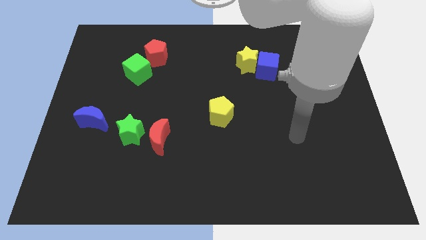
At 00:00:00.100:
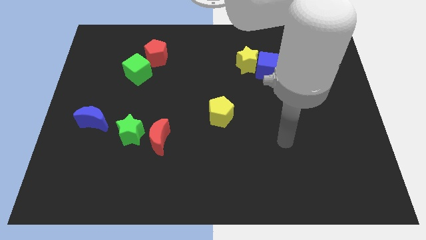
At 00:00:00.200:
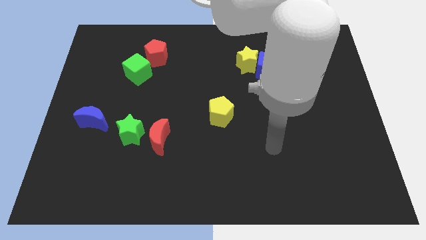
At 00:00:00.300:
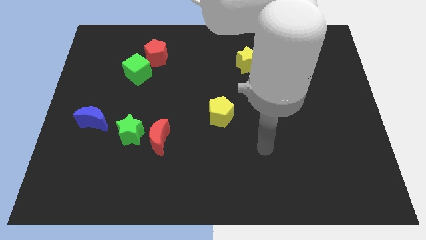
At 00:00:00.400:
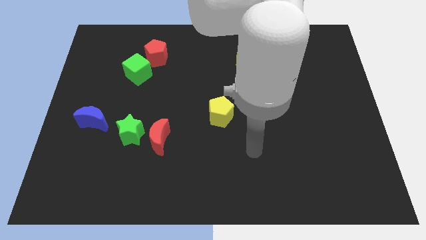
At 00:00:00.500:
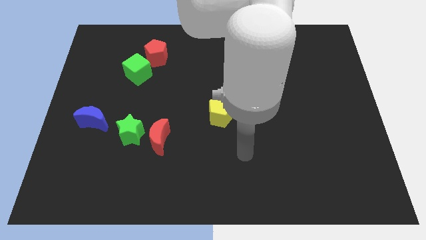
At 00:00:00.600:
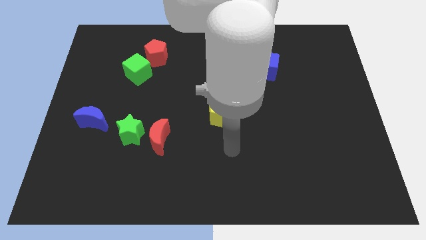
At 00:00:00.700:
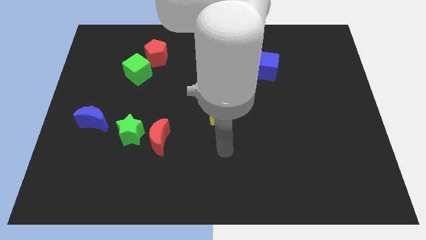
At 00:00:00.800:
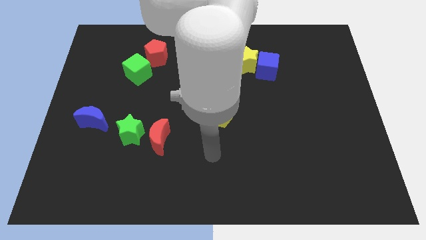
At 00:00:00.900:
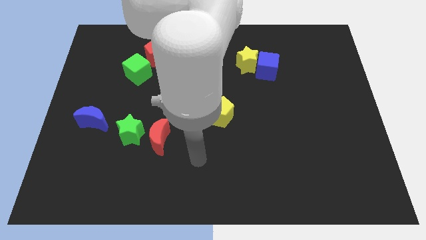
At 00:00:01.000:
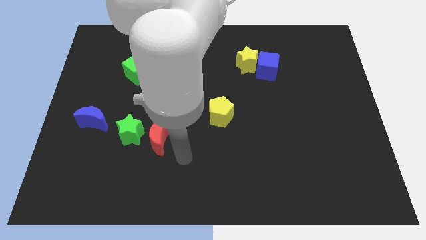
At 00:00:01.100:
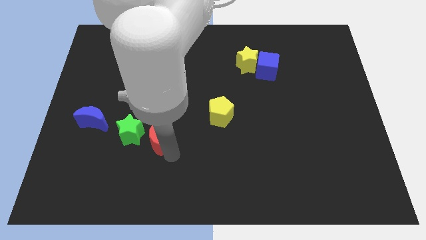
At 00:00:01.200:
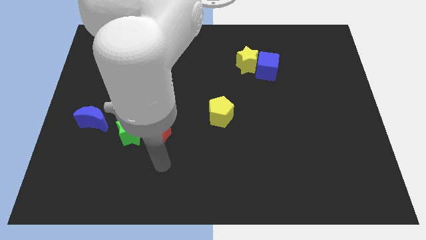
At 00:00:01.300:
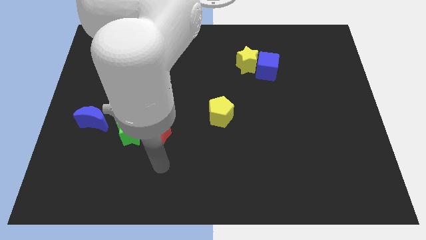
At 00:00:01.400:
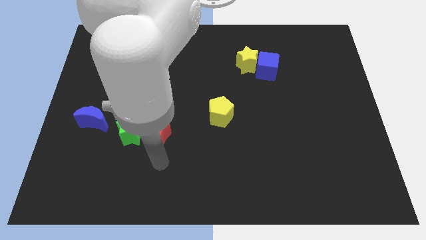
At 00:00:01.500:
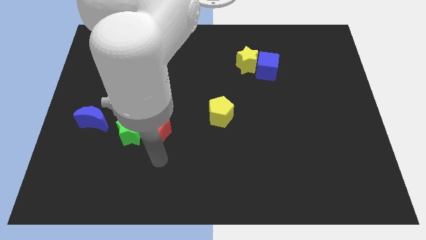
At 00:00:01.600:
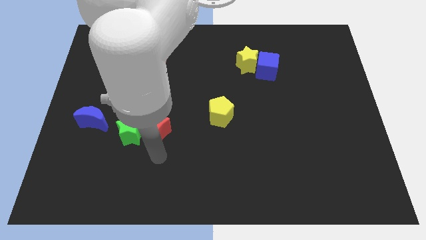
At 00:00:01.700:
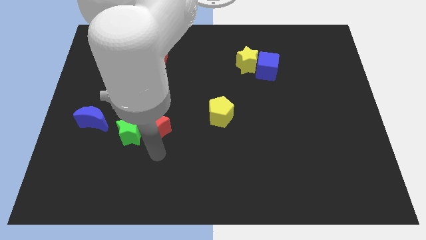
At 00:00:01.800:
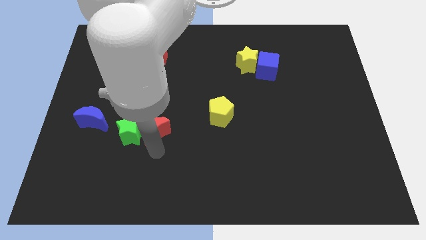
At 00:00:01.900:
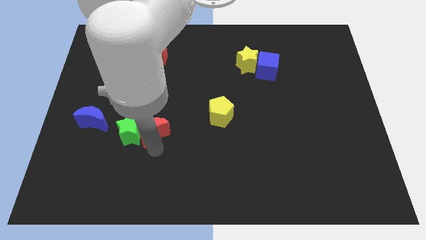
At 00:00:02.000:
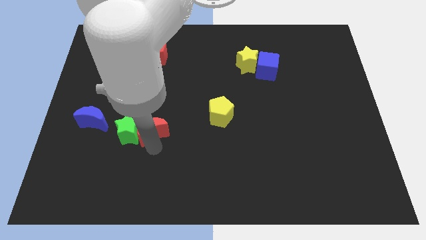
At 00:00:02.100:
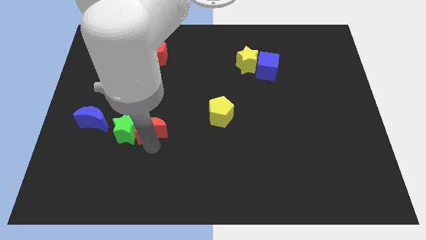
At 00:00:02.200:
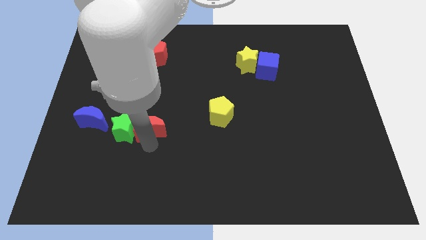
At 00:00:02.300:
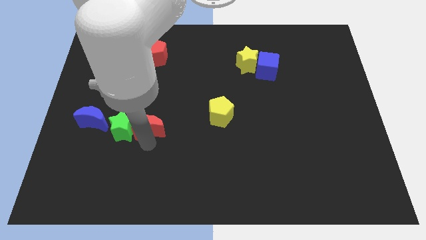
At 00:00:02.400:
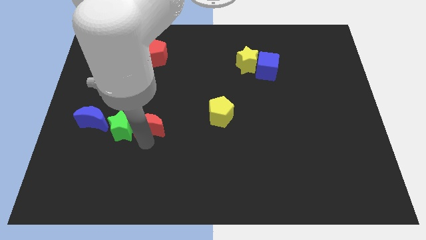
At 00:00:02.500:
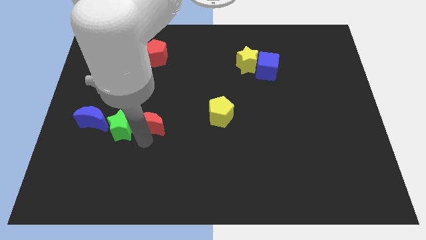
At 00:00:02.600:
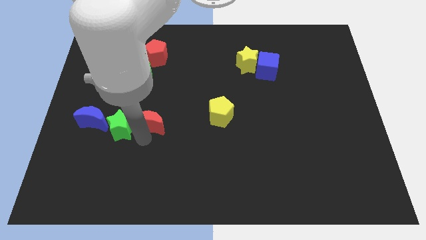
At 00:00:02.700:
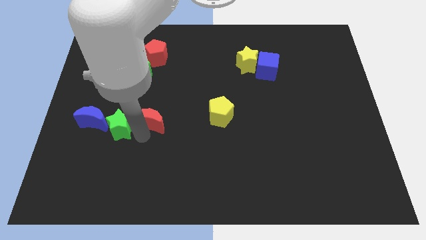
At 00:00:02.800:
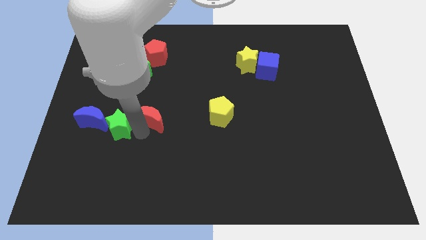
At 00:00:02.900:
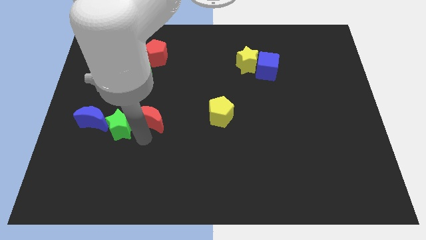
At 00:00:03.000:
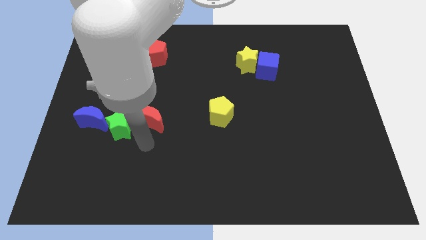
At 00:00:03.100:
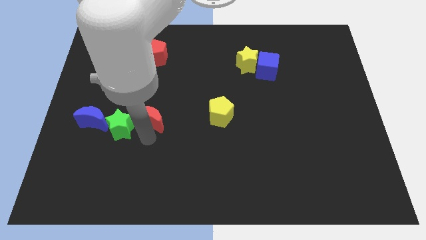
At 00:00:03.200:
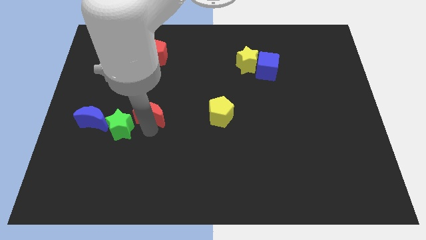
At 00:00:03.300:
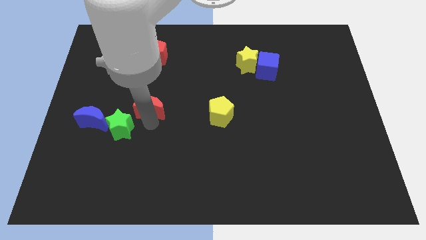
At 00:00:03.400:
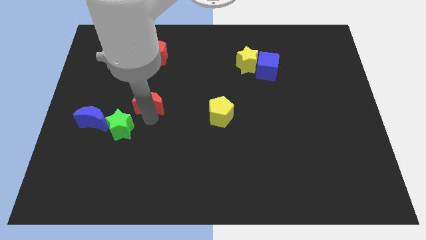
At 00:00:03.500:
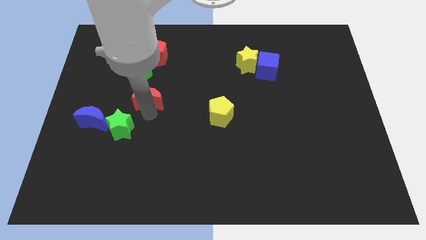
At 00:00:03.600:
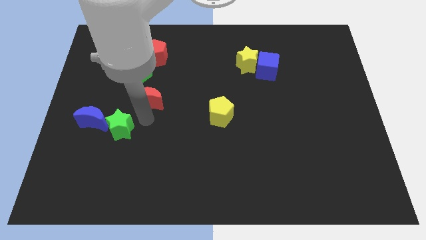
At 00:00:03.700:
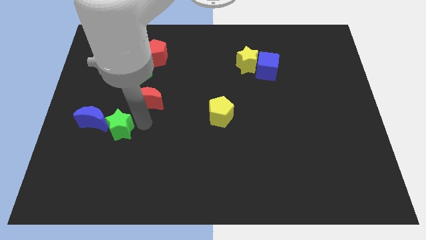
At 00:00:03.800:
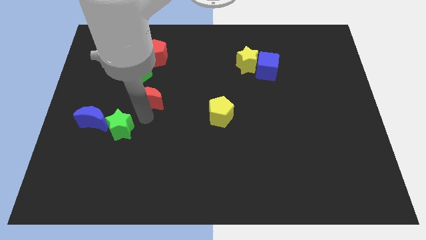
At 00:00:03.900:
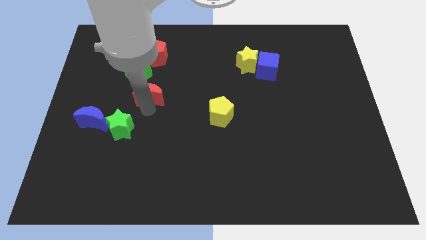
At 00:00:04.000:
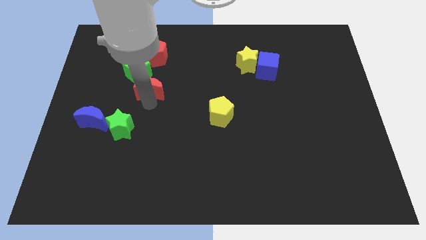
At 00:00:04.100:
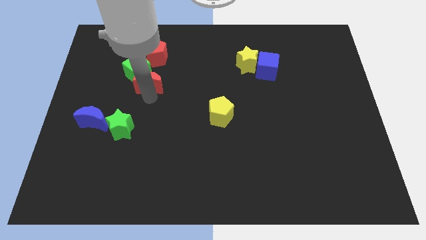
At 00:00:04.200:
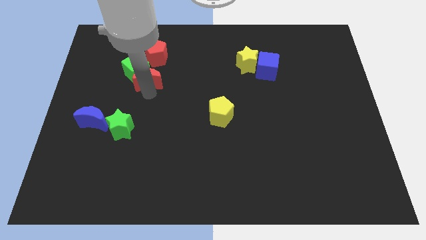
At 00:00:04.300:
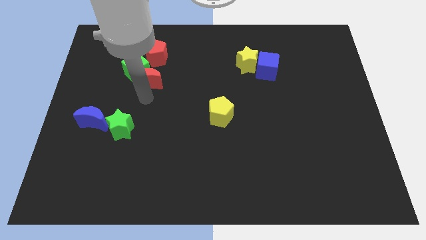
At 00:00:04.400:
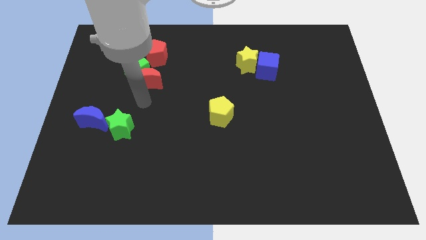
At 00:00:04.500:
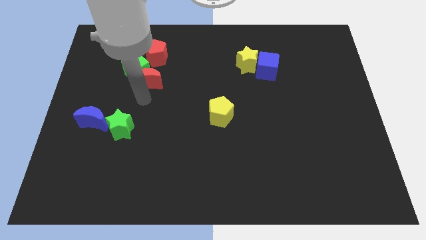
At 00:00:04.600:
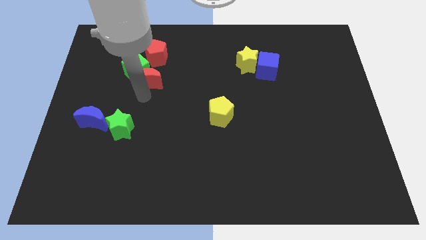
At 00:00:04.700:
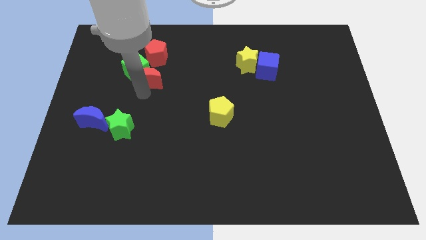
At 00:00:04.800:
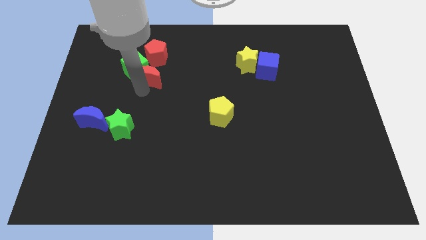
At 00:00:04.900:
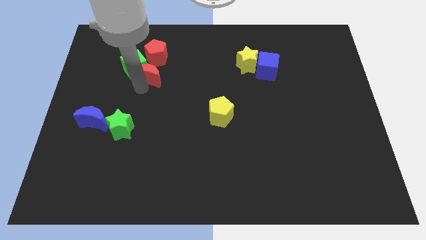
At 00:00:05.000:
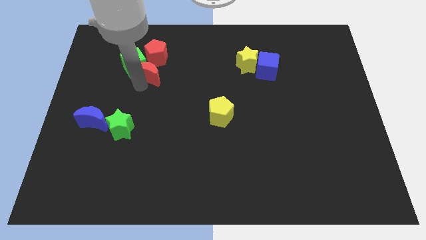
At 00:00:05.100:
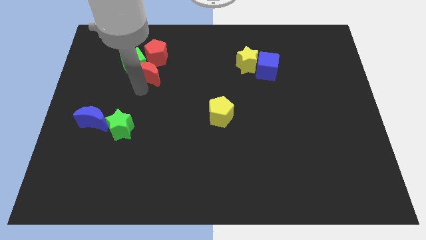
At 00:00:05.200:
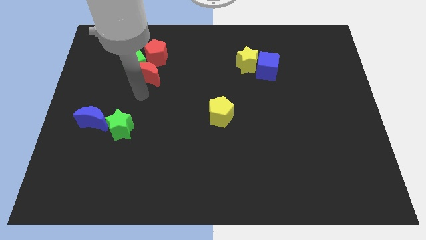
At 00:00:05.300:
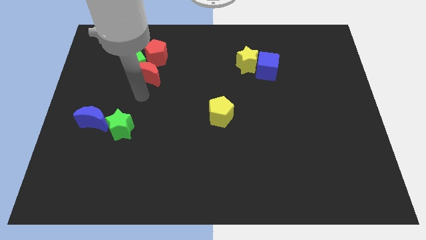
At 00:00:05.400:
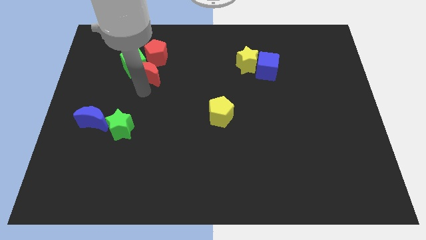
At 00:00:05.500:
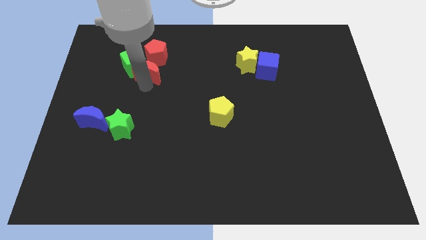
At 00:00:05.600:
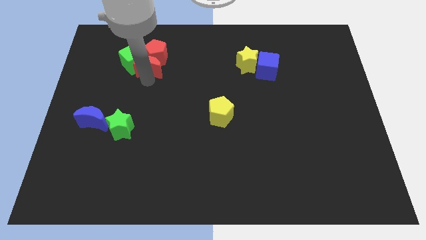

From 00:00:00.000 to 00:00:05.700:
put the red moon towards the red pentagon

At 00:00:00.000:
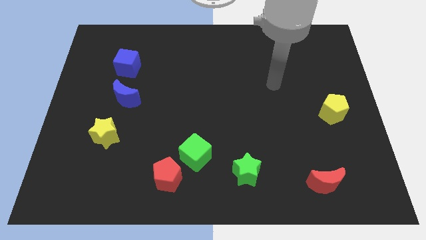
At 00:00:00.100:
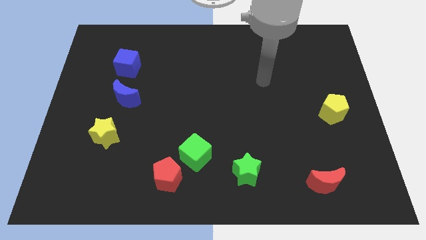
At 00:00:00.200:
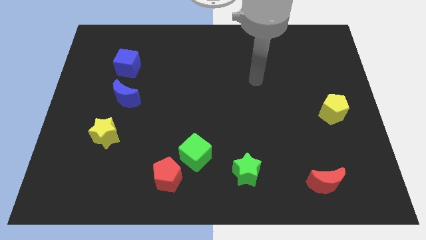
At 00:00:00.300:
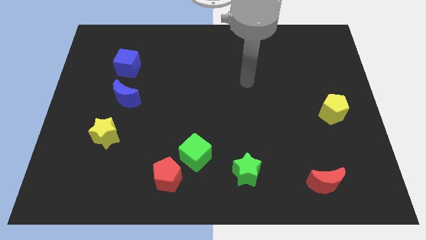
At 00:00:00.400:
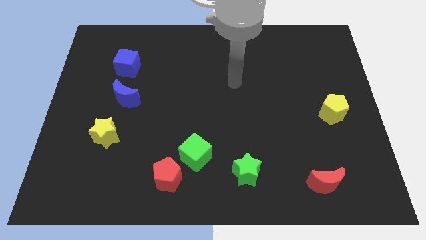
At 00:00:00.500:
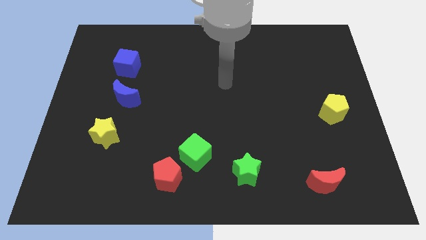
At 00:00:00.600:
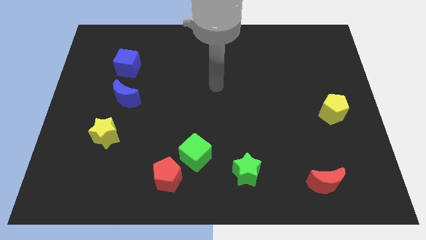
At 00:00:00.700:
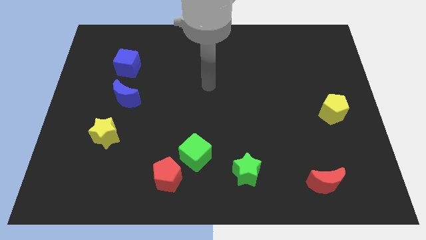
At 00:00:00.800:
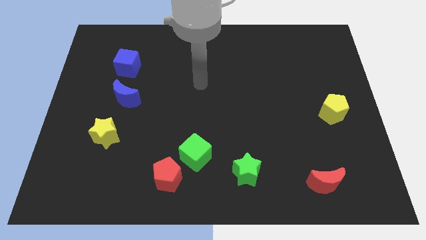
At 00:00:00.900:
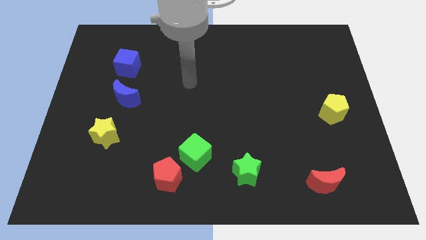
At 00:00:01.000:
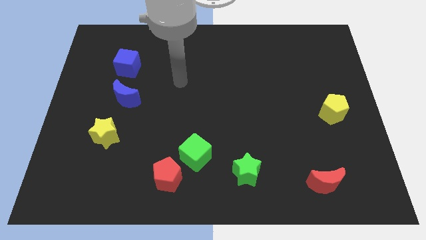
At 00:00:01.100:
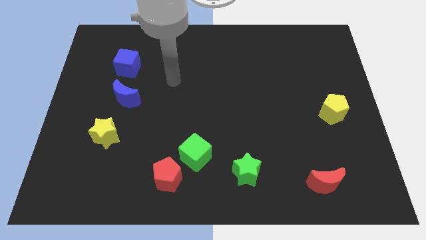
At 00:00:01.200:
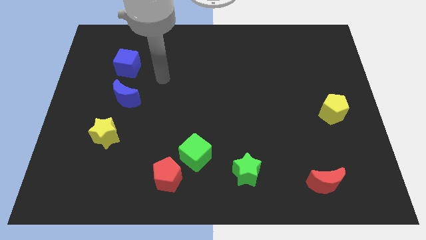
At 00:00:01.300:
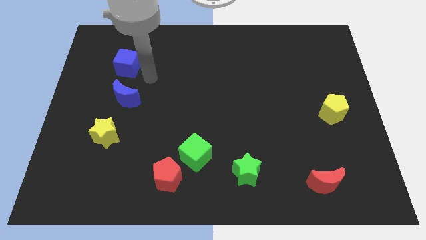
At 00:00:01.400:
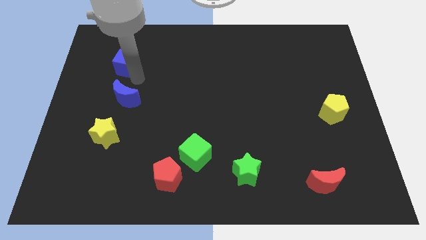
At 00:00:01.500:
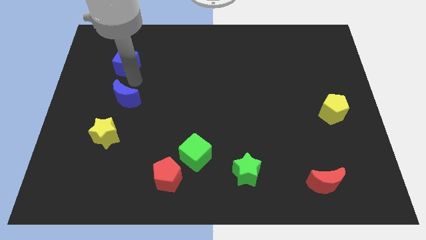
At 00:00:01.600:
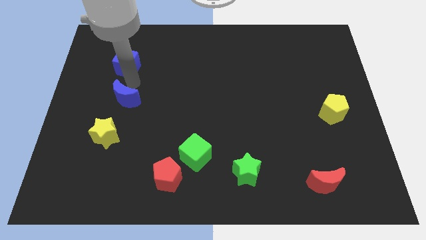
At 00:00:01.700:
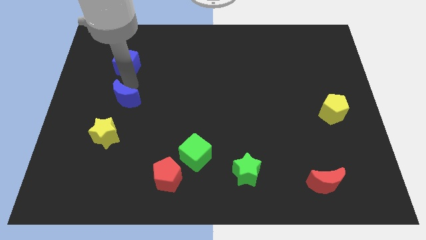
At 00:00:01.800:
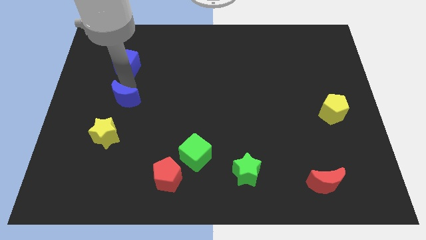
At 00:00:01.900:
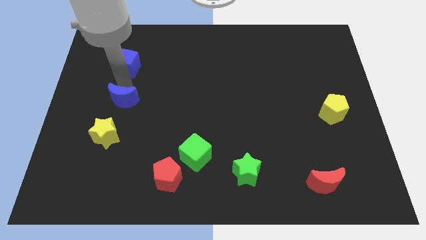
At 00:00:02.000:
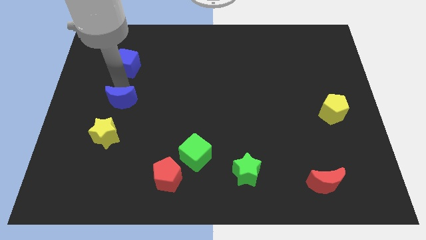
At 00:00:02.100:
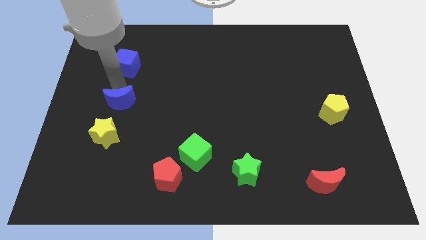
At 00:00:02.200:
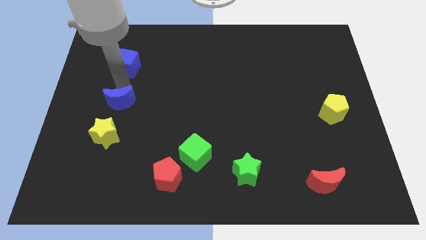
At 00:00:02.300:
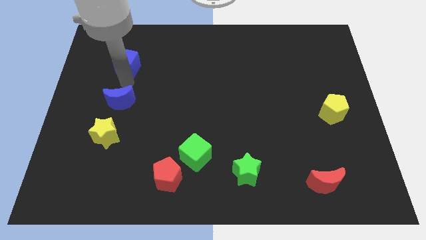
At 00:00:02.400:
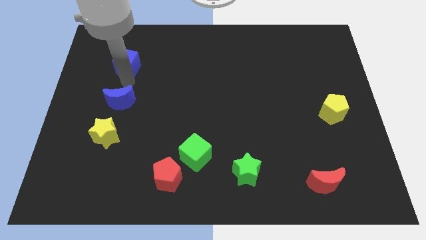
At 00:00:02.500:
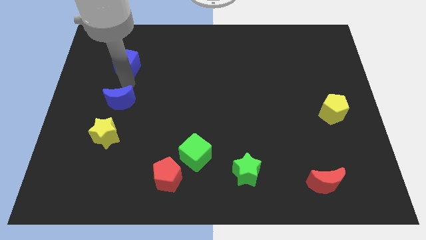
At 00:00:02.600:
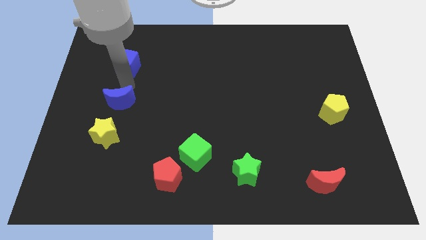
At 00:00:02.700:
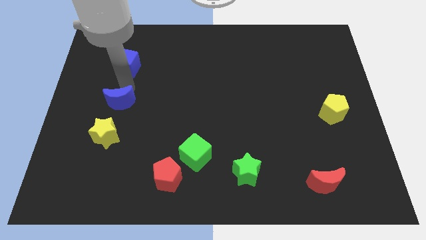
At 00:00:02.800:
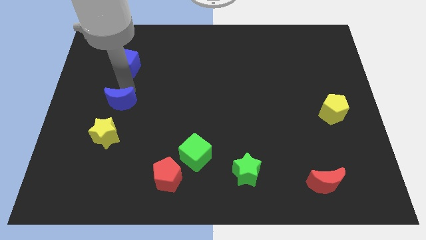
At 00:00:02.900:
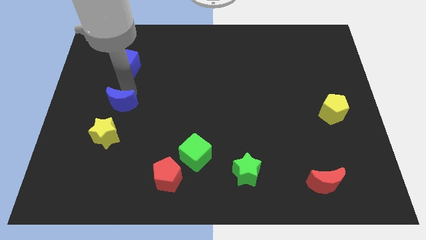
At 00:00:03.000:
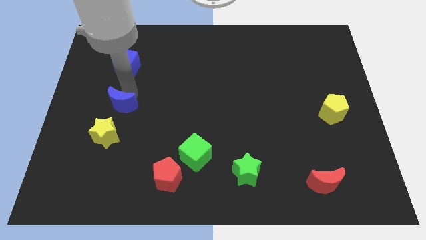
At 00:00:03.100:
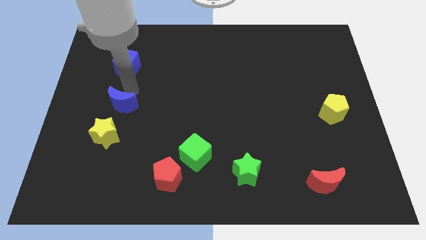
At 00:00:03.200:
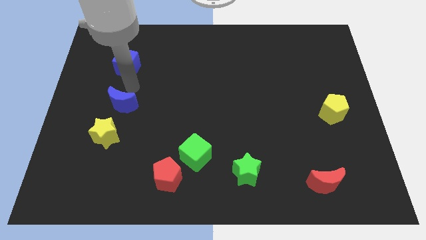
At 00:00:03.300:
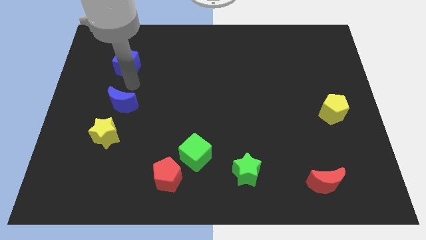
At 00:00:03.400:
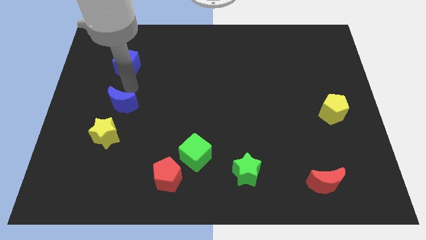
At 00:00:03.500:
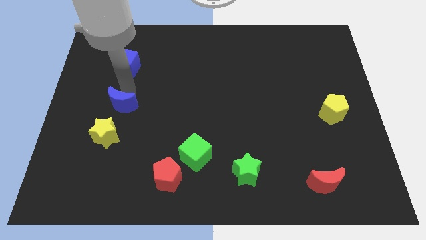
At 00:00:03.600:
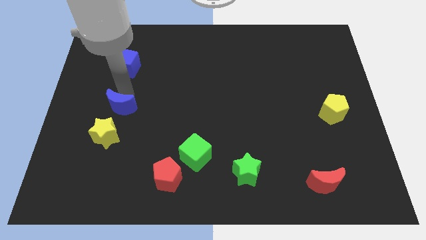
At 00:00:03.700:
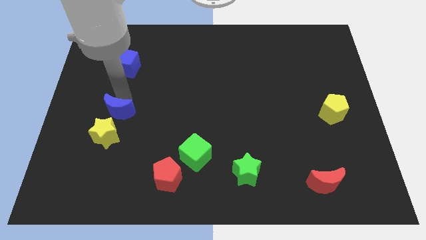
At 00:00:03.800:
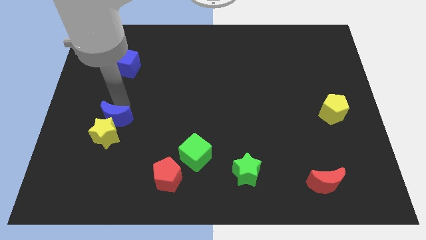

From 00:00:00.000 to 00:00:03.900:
move the blue moon towards the yellow star
